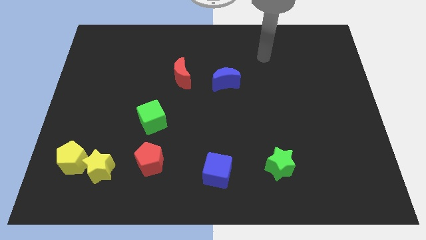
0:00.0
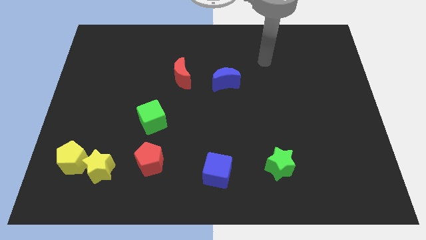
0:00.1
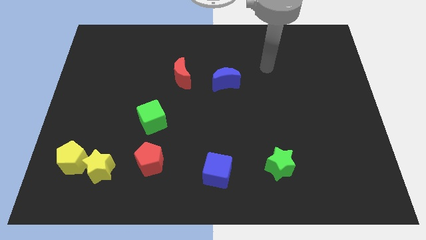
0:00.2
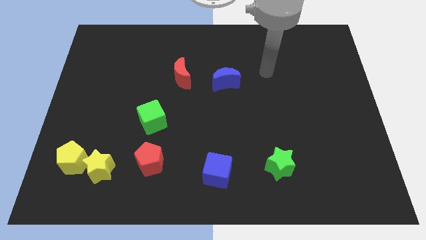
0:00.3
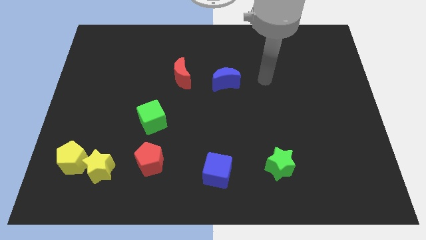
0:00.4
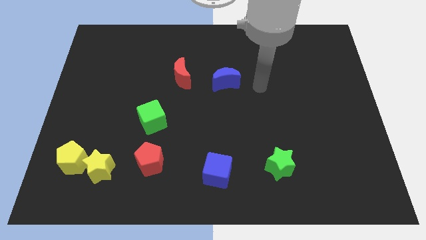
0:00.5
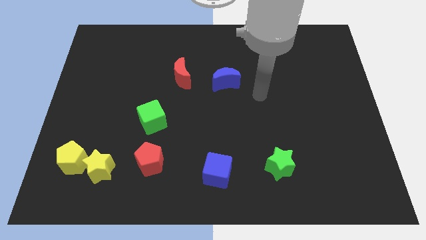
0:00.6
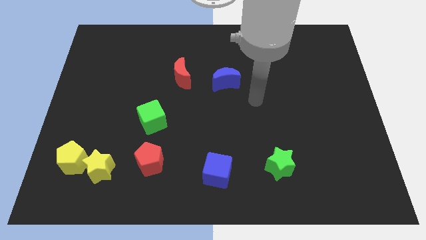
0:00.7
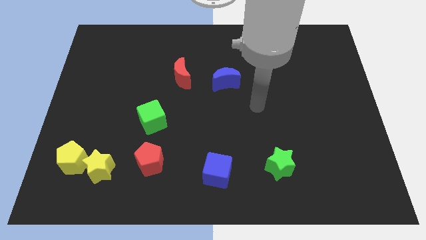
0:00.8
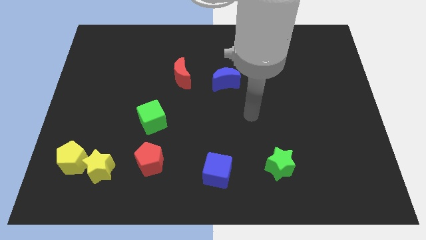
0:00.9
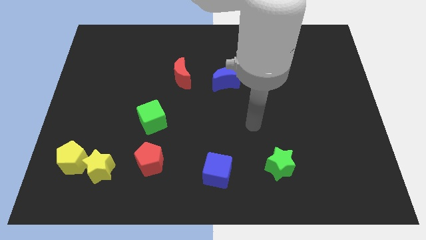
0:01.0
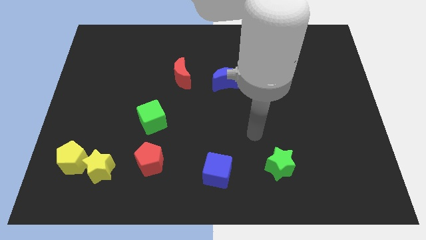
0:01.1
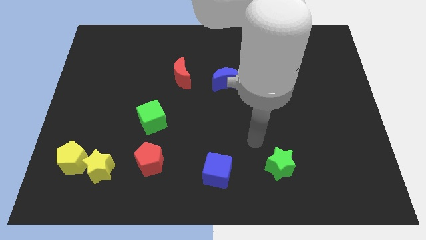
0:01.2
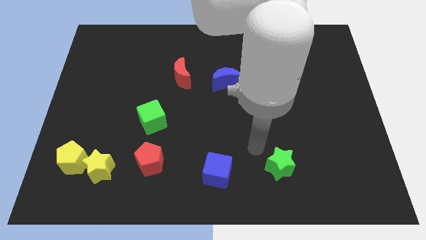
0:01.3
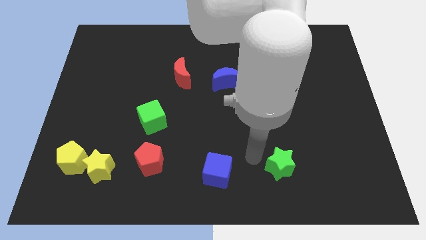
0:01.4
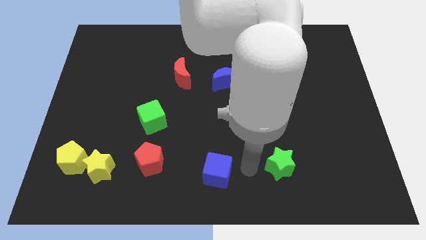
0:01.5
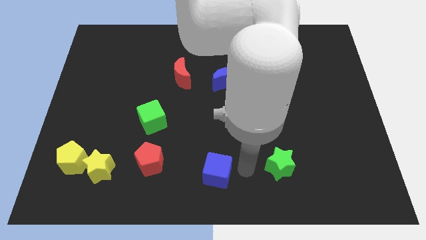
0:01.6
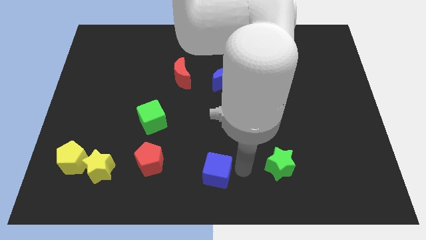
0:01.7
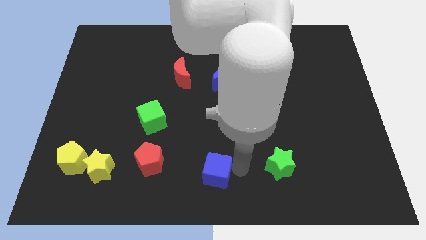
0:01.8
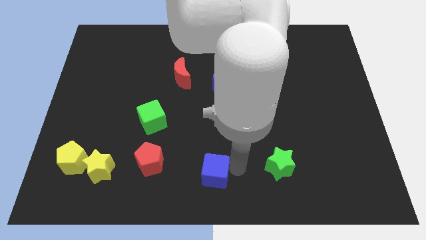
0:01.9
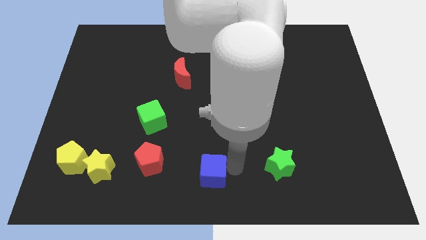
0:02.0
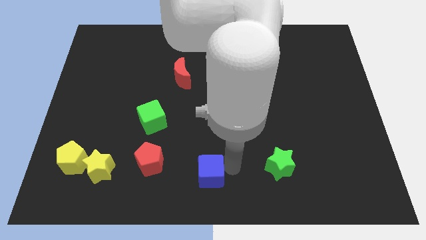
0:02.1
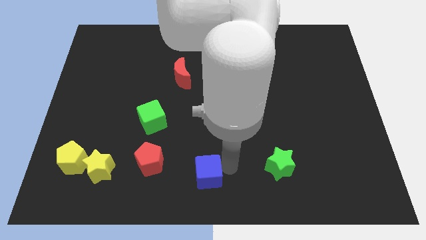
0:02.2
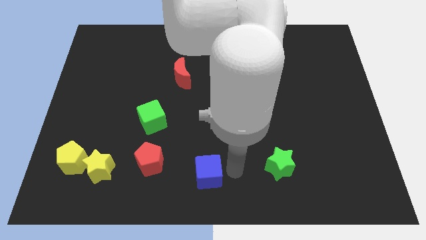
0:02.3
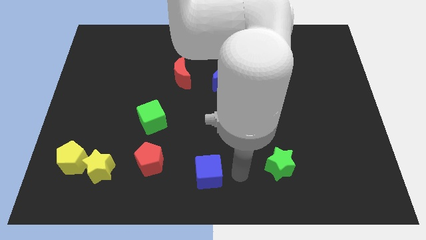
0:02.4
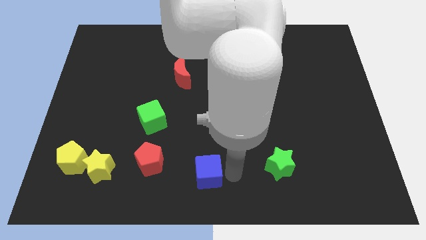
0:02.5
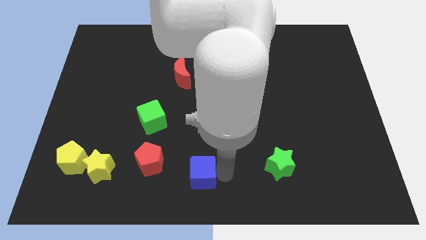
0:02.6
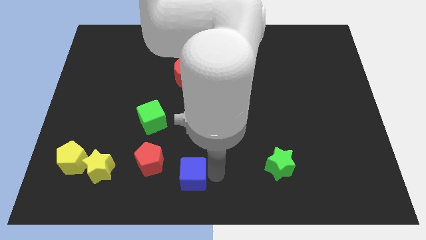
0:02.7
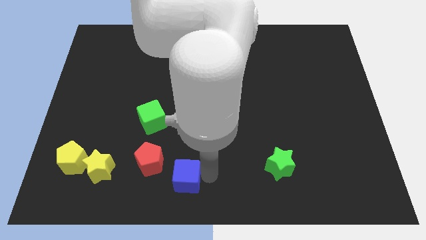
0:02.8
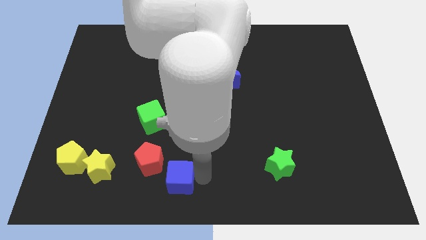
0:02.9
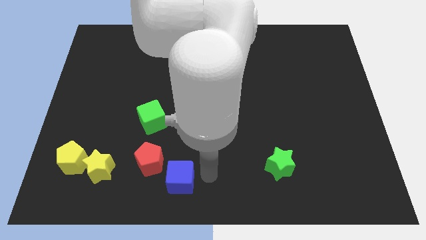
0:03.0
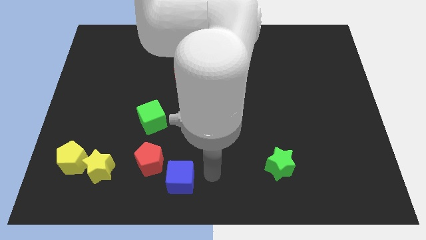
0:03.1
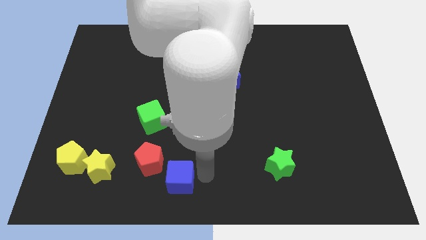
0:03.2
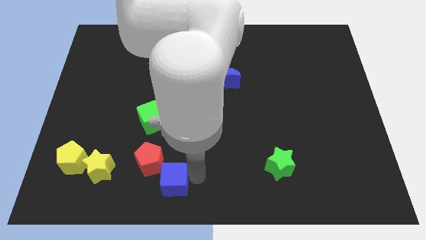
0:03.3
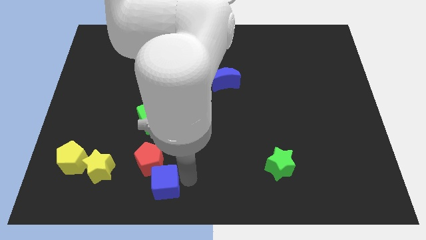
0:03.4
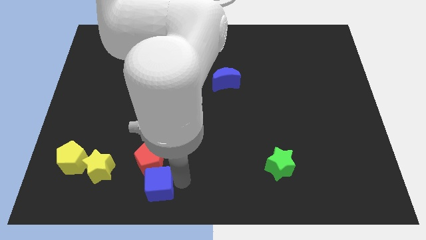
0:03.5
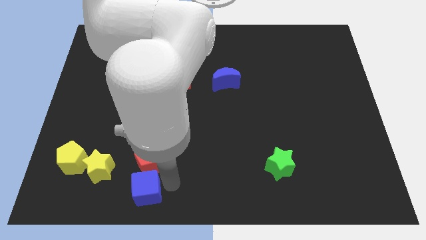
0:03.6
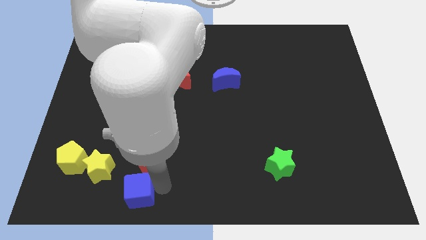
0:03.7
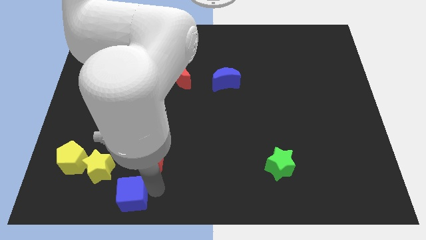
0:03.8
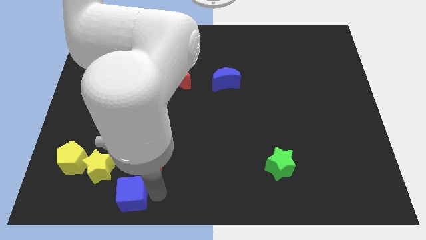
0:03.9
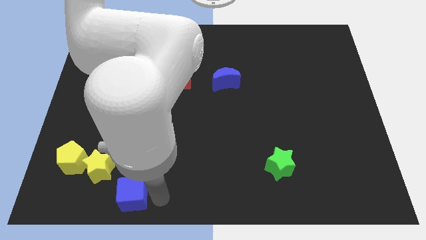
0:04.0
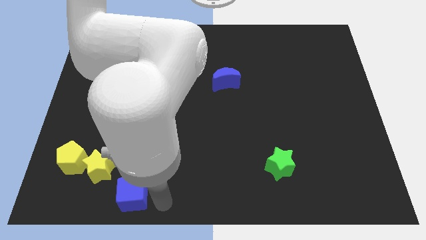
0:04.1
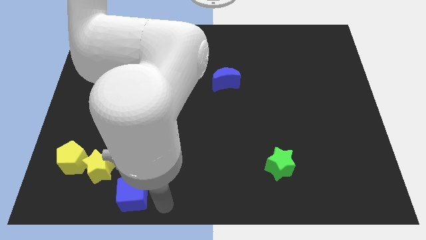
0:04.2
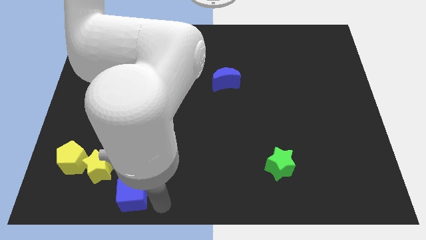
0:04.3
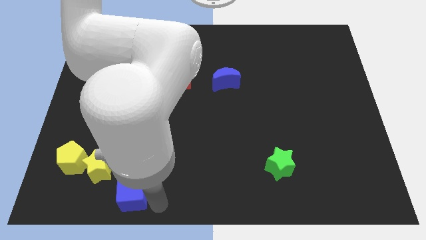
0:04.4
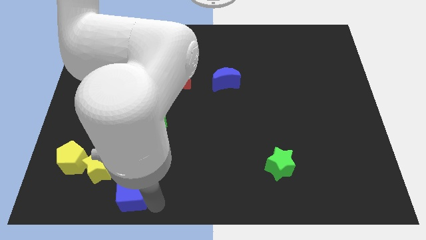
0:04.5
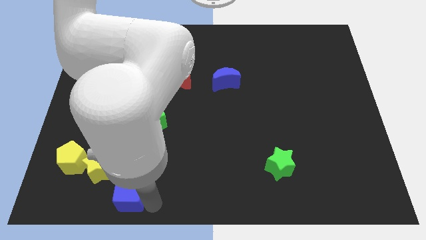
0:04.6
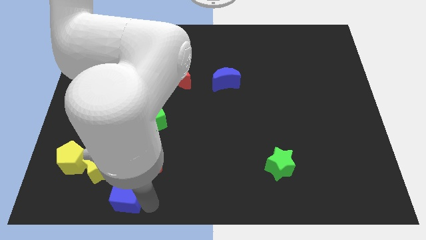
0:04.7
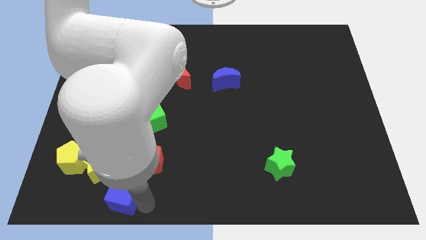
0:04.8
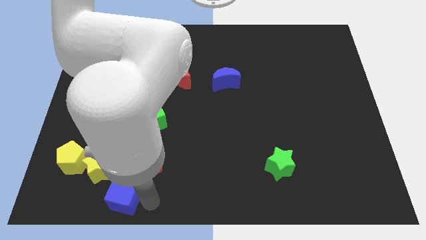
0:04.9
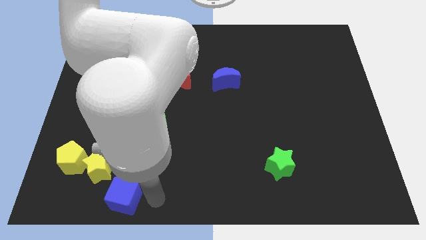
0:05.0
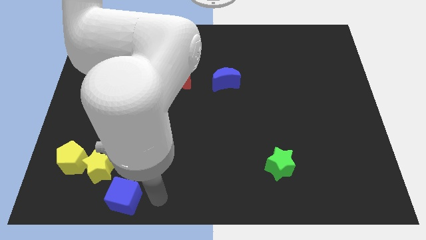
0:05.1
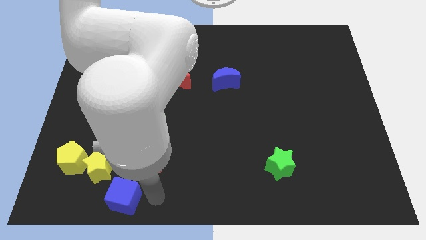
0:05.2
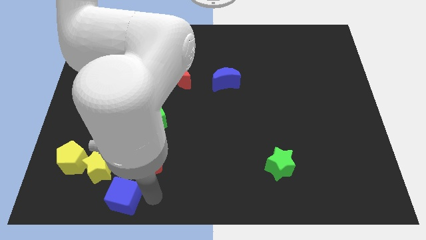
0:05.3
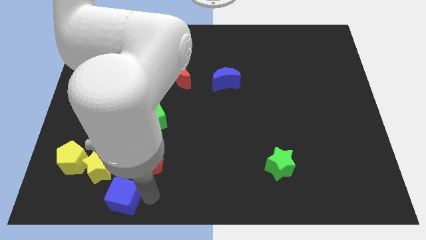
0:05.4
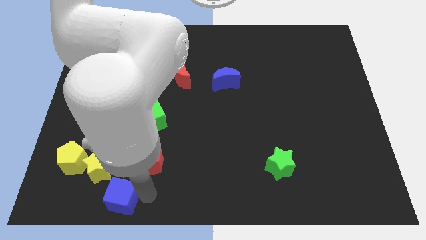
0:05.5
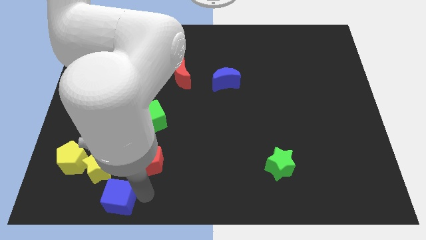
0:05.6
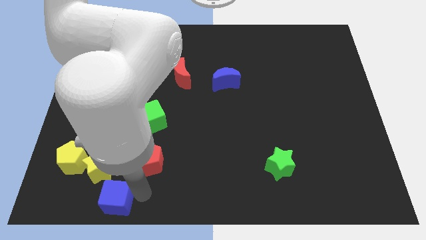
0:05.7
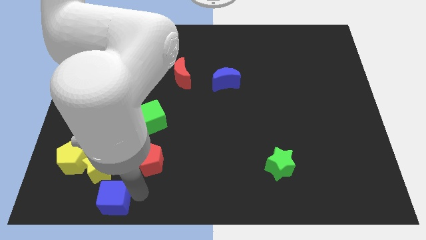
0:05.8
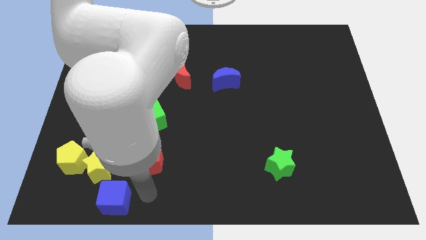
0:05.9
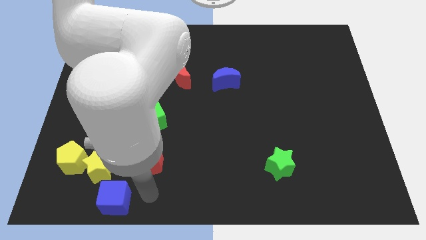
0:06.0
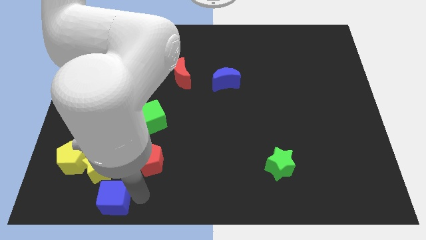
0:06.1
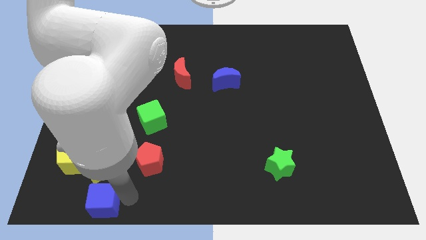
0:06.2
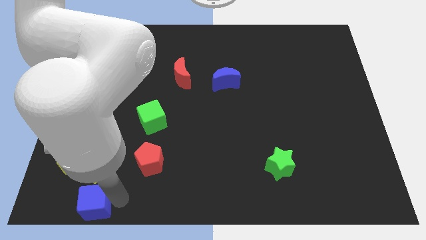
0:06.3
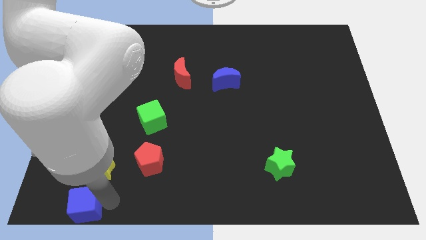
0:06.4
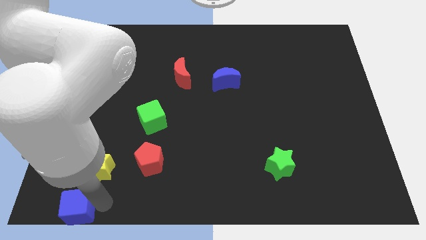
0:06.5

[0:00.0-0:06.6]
slide the blue cube to the bottom left of the board
